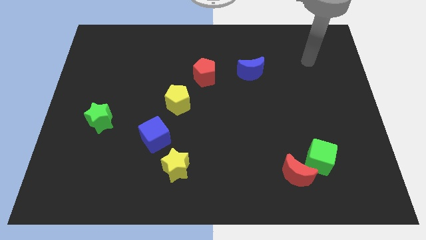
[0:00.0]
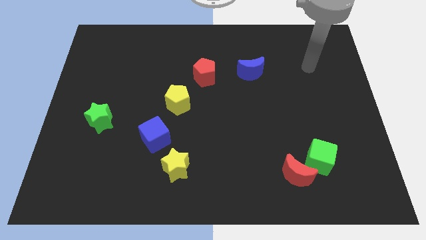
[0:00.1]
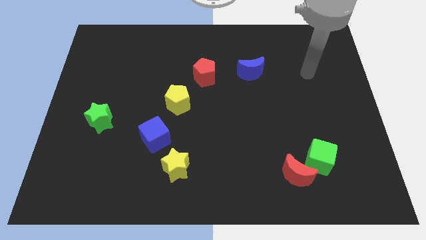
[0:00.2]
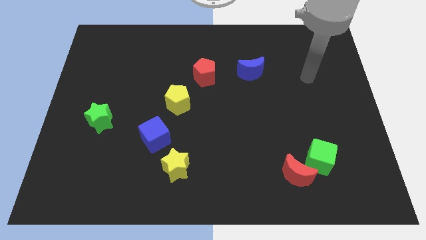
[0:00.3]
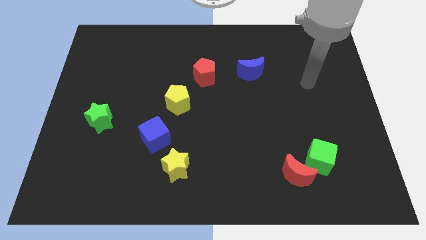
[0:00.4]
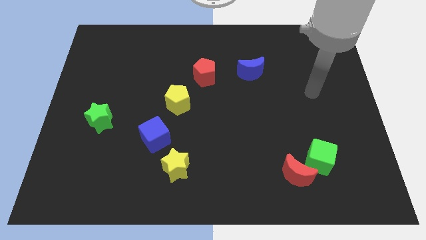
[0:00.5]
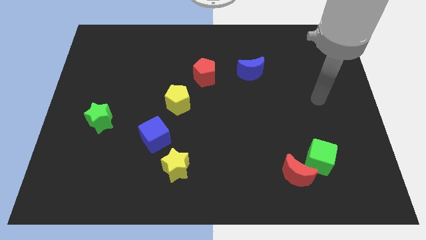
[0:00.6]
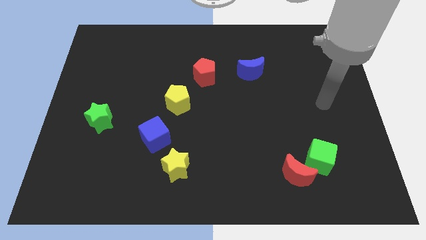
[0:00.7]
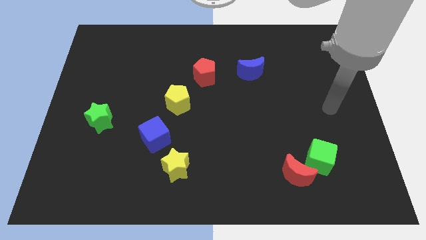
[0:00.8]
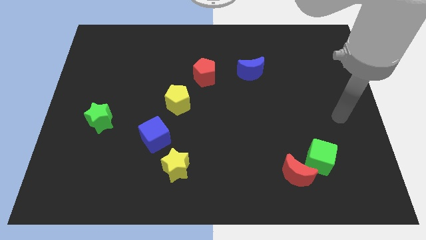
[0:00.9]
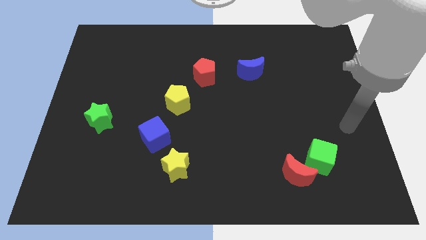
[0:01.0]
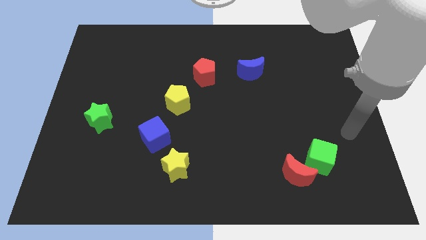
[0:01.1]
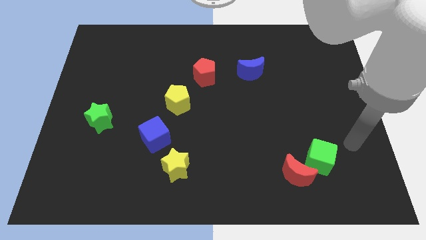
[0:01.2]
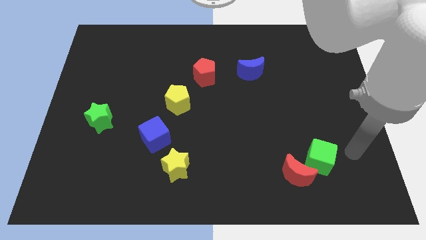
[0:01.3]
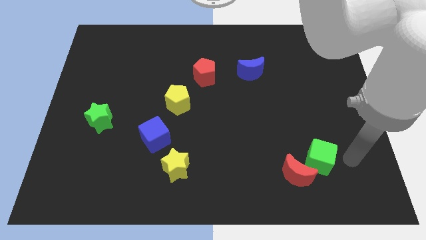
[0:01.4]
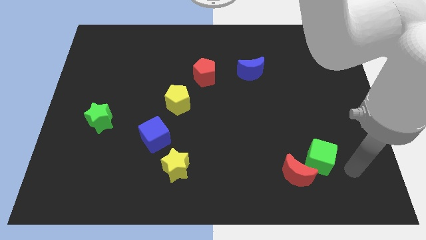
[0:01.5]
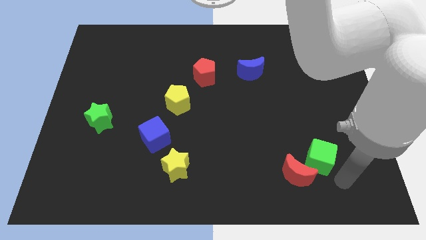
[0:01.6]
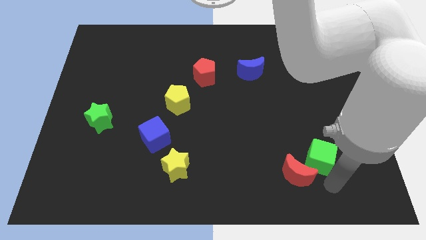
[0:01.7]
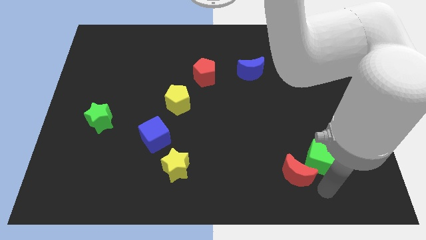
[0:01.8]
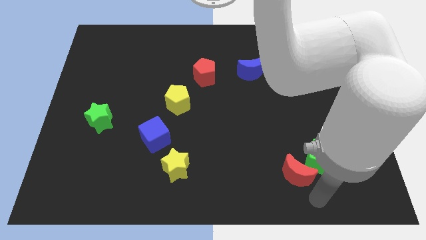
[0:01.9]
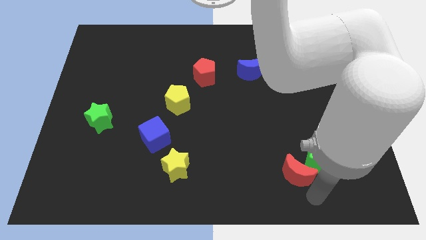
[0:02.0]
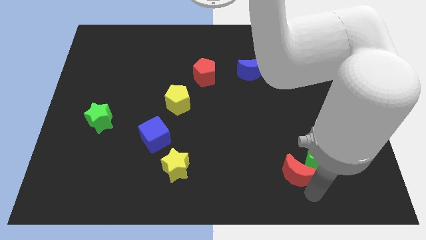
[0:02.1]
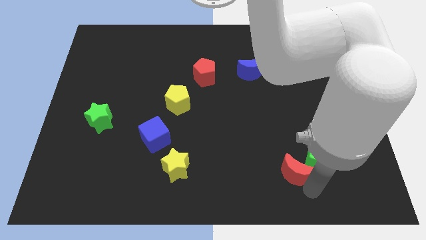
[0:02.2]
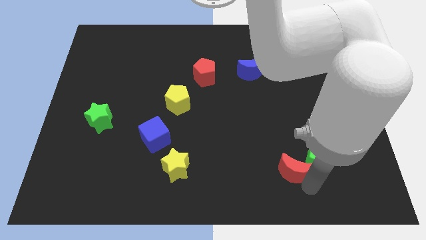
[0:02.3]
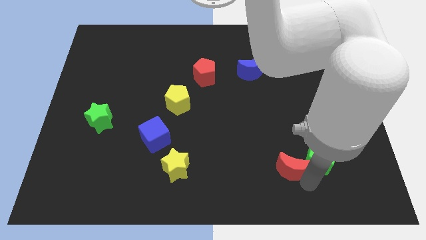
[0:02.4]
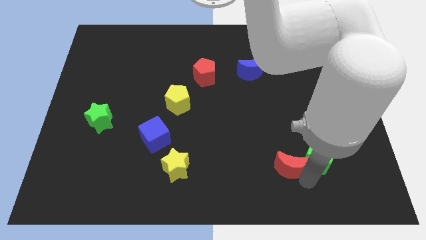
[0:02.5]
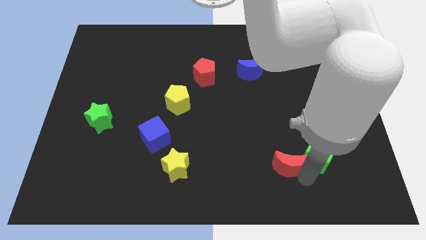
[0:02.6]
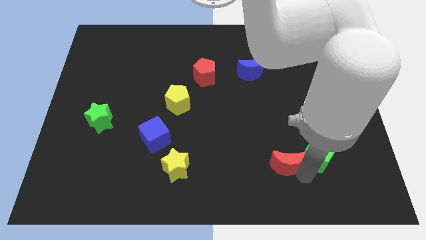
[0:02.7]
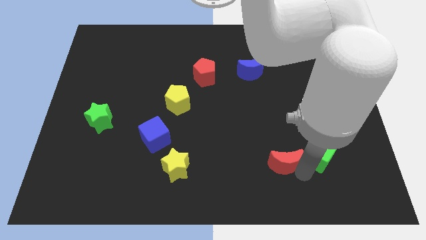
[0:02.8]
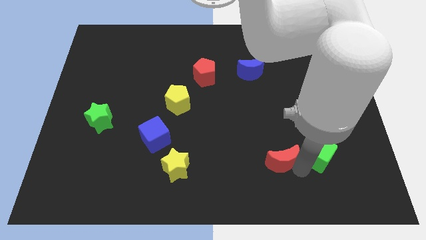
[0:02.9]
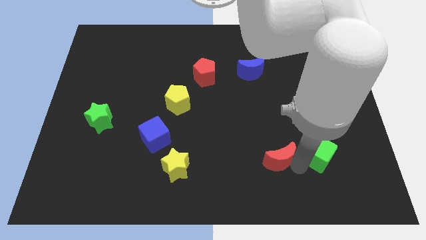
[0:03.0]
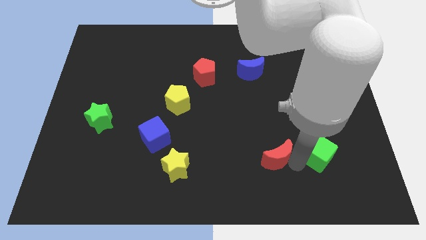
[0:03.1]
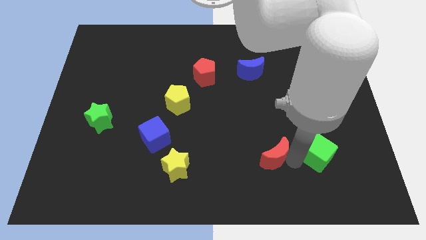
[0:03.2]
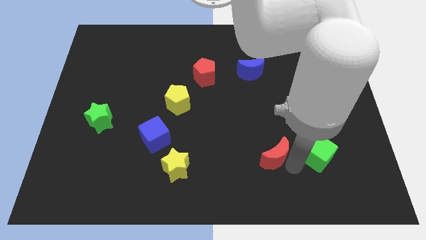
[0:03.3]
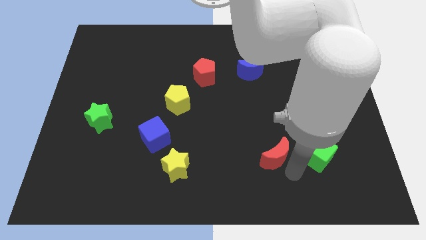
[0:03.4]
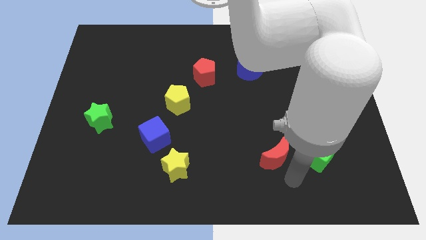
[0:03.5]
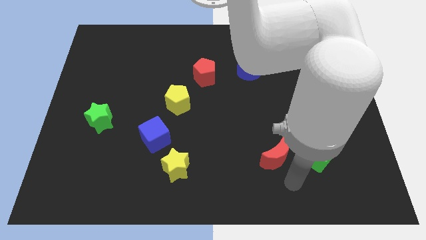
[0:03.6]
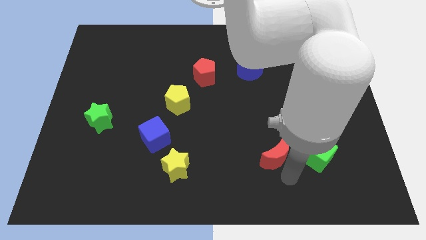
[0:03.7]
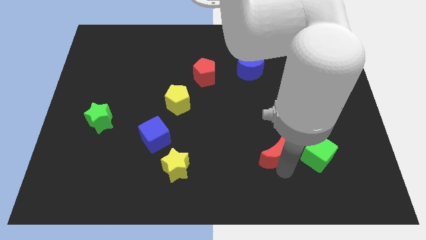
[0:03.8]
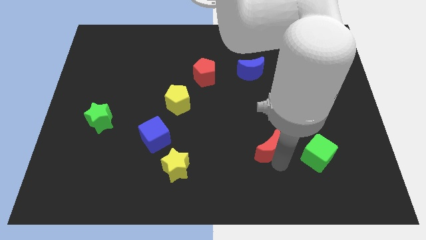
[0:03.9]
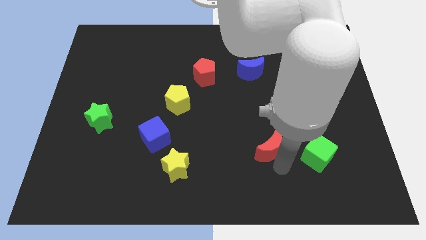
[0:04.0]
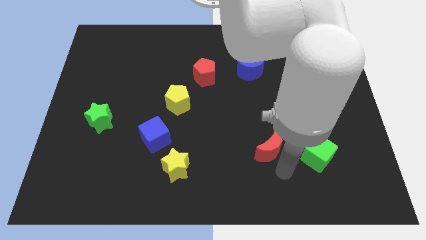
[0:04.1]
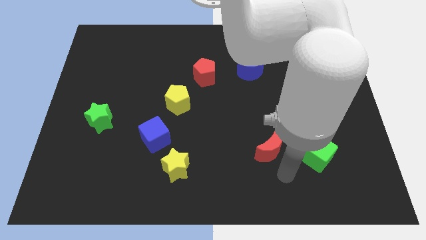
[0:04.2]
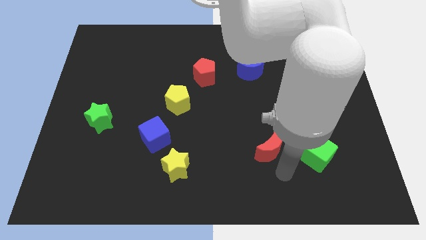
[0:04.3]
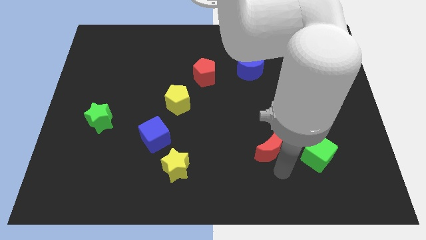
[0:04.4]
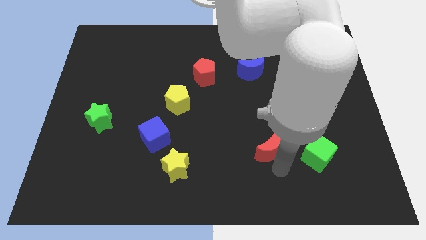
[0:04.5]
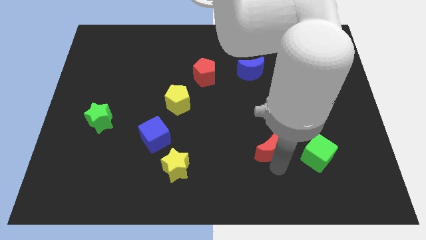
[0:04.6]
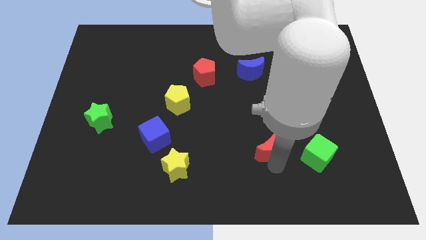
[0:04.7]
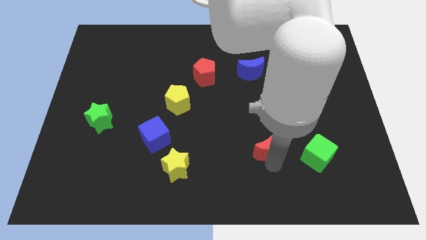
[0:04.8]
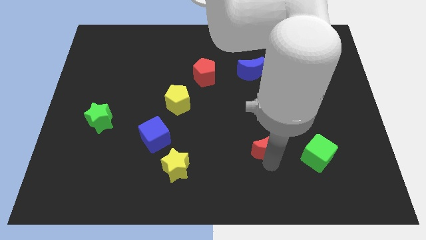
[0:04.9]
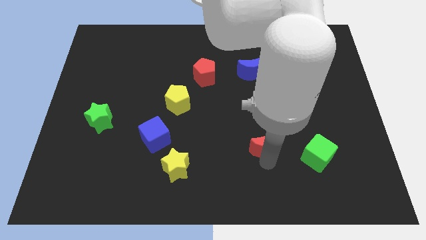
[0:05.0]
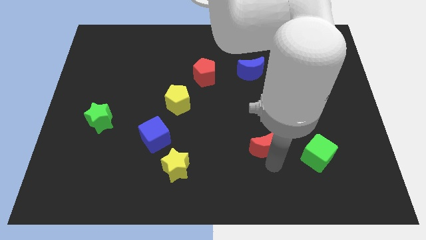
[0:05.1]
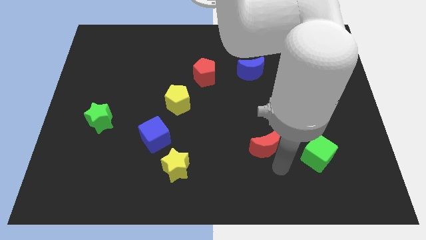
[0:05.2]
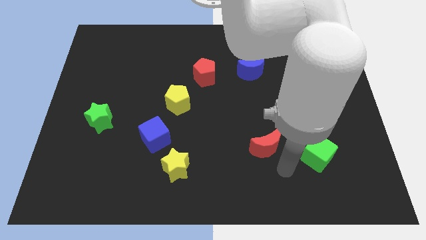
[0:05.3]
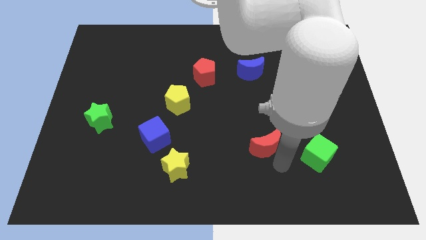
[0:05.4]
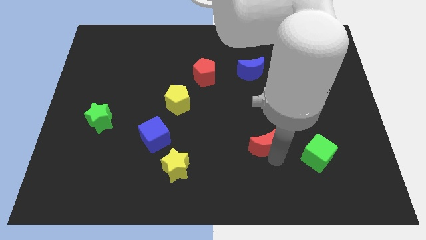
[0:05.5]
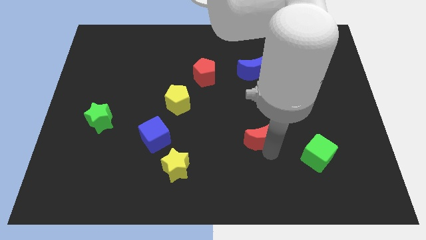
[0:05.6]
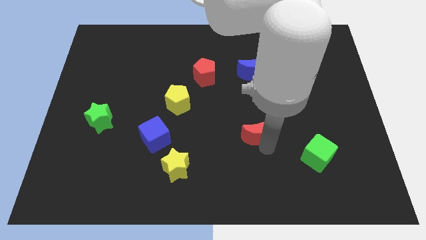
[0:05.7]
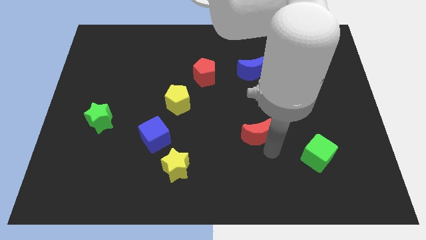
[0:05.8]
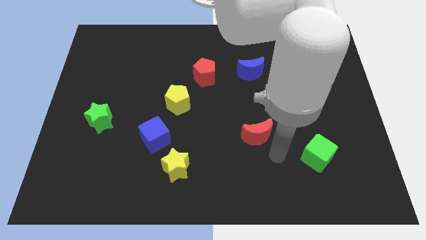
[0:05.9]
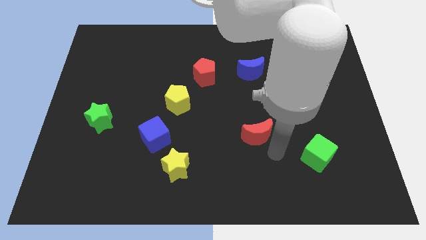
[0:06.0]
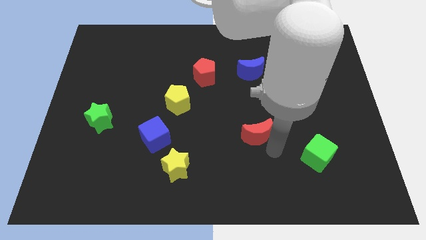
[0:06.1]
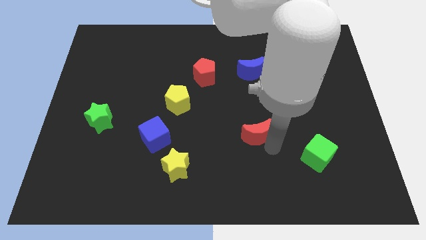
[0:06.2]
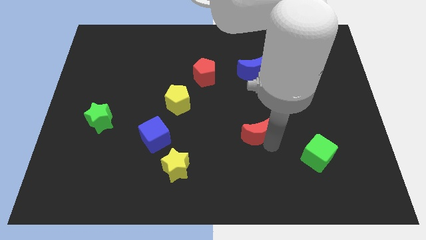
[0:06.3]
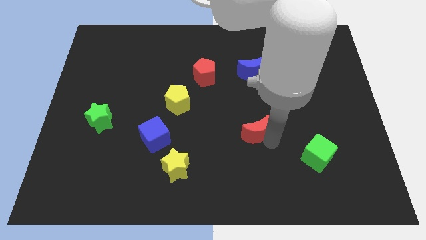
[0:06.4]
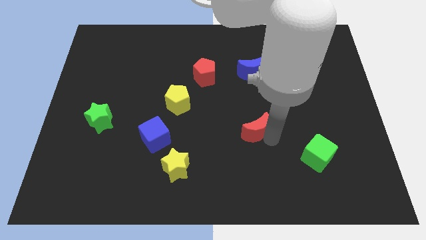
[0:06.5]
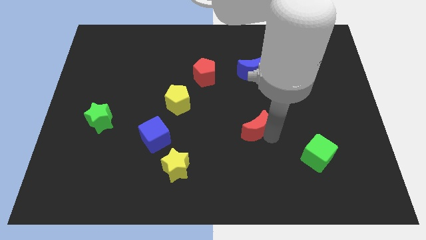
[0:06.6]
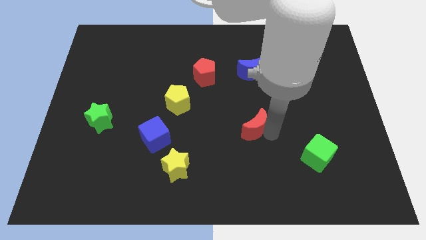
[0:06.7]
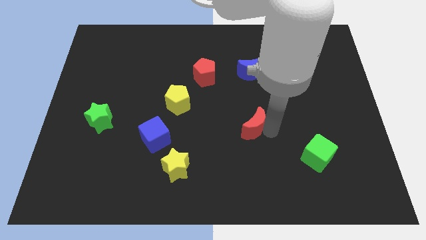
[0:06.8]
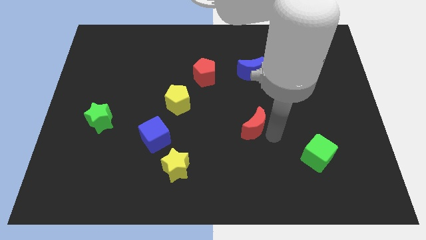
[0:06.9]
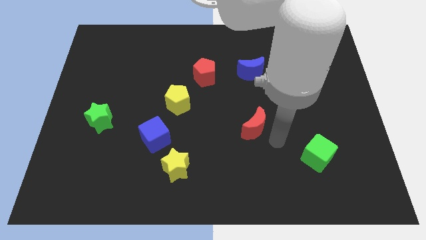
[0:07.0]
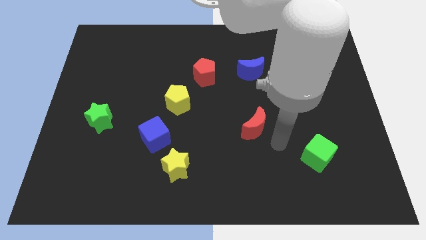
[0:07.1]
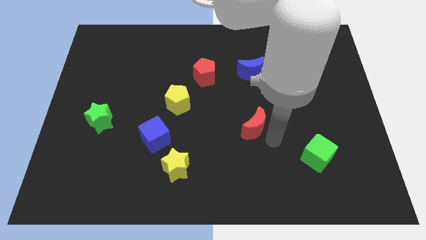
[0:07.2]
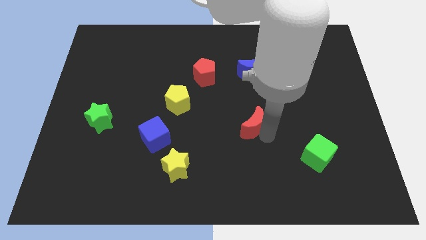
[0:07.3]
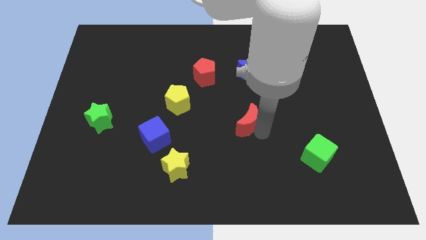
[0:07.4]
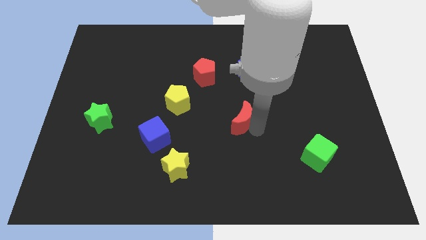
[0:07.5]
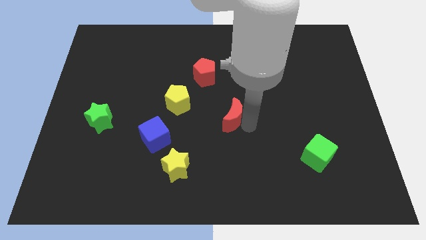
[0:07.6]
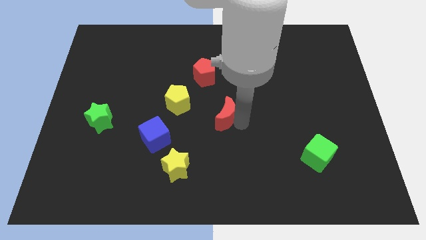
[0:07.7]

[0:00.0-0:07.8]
move the red moon diagonally up and left

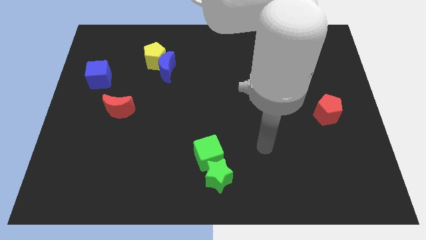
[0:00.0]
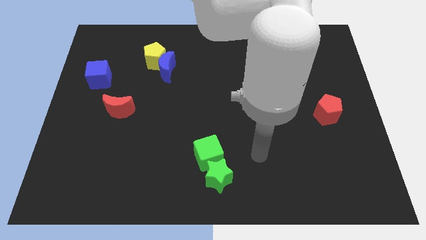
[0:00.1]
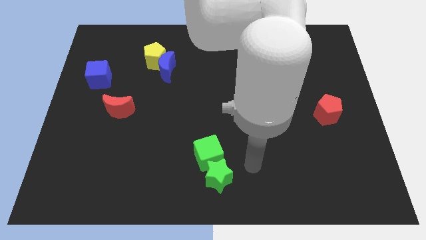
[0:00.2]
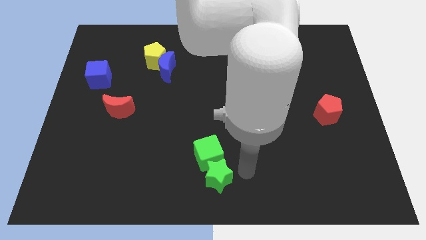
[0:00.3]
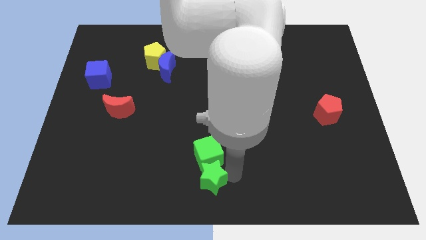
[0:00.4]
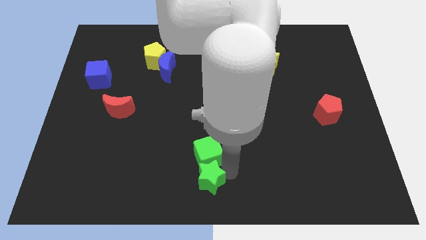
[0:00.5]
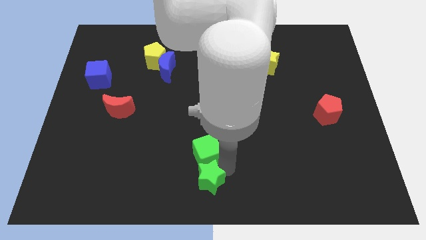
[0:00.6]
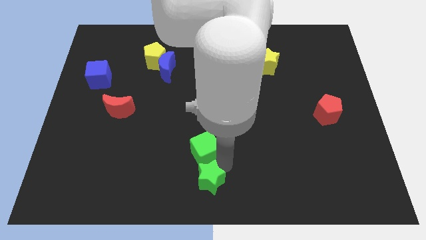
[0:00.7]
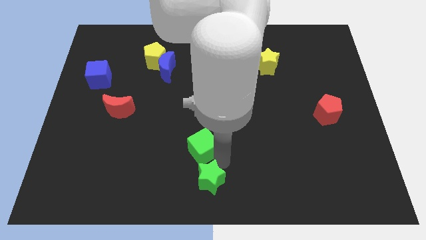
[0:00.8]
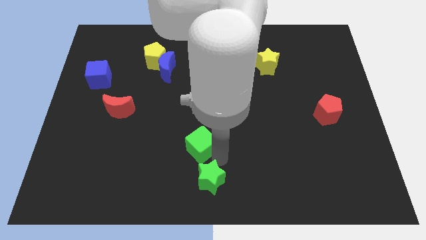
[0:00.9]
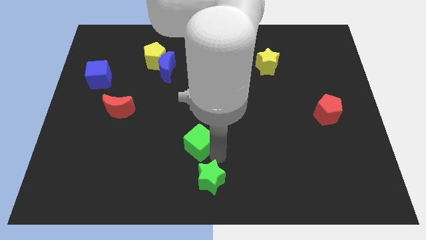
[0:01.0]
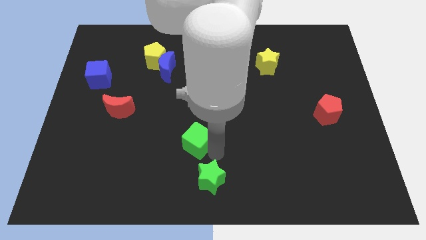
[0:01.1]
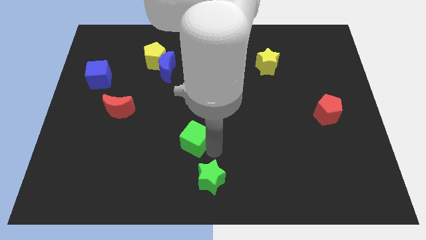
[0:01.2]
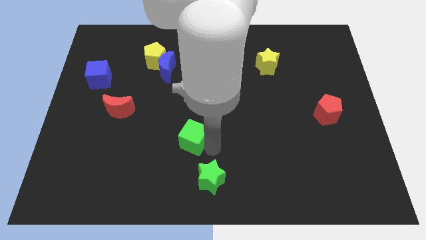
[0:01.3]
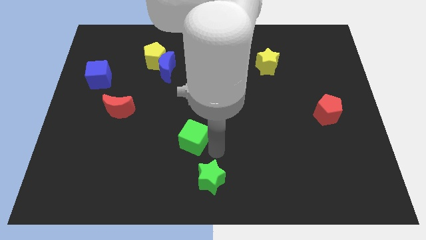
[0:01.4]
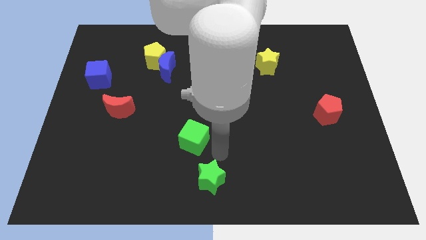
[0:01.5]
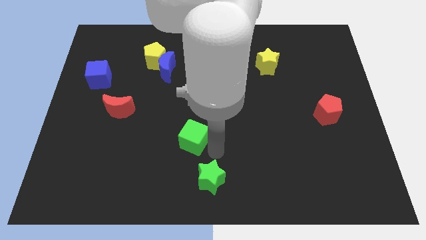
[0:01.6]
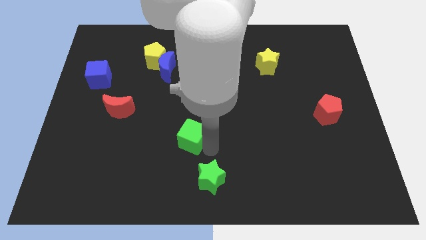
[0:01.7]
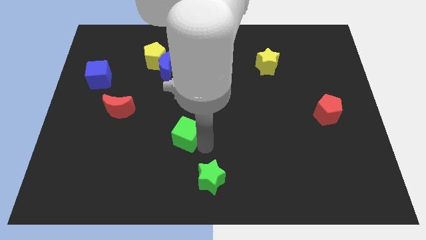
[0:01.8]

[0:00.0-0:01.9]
push the green cube somewhat up and left diagonally
